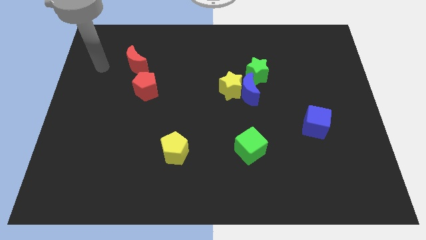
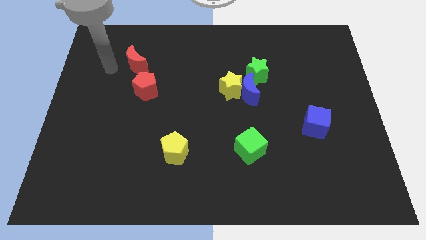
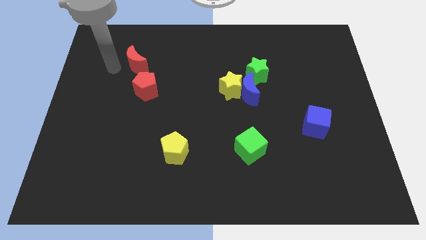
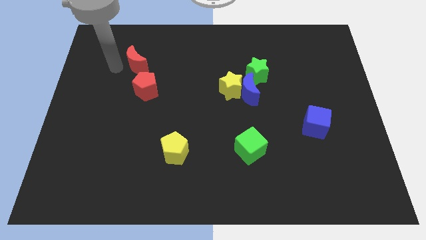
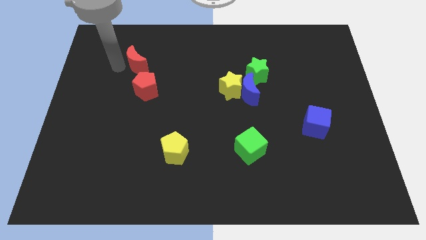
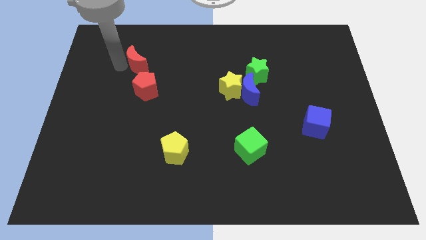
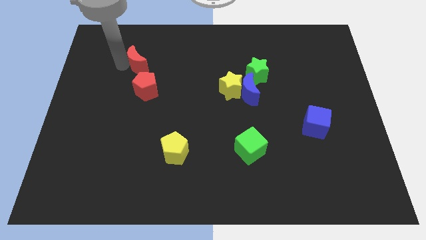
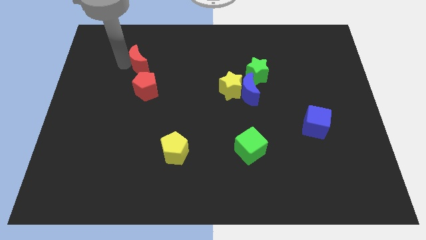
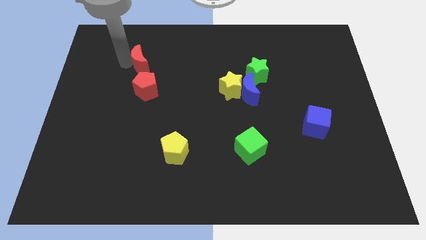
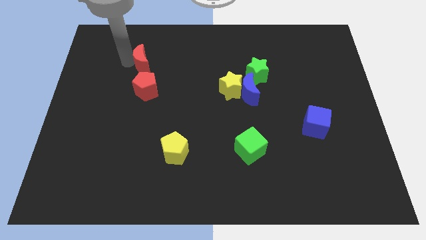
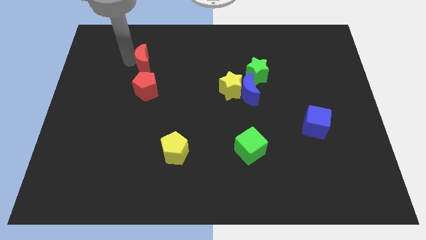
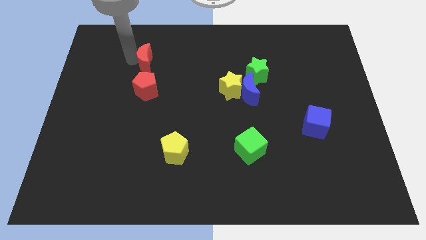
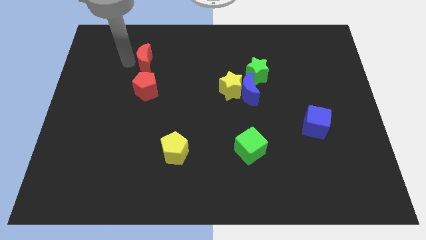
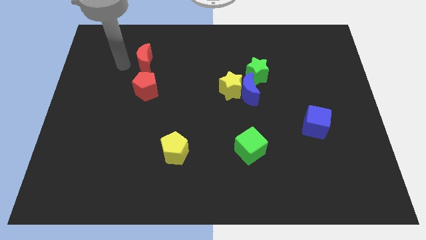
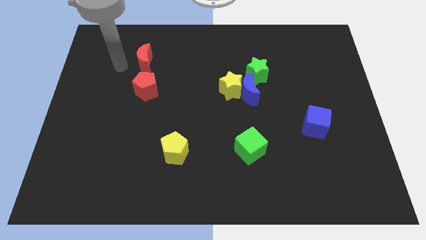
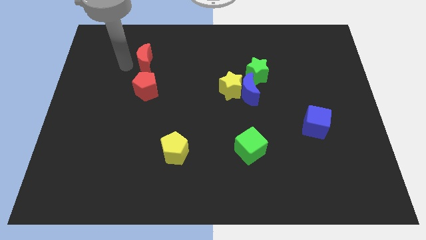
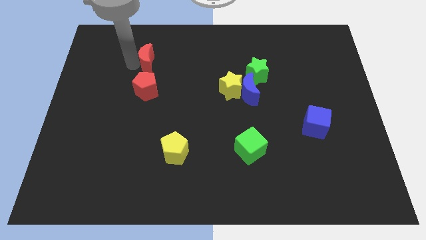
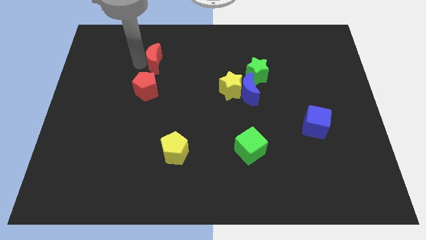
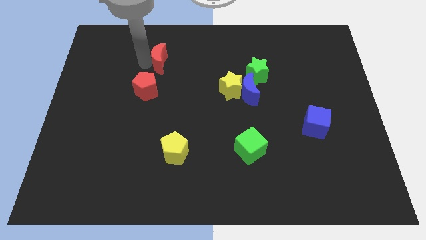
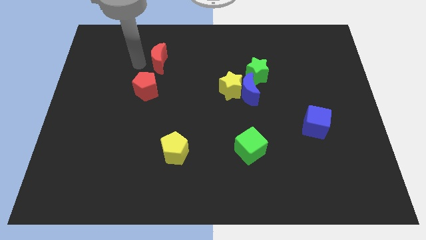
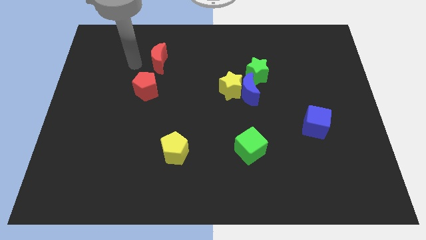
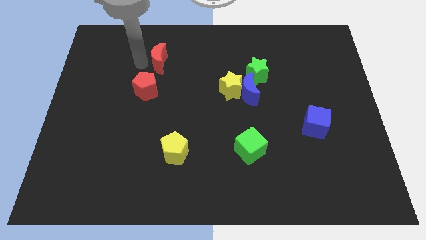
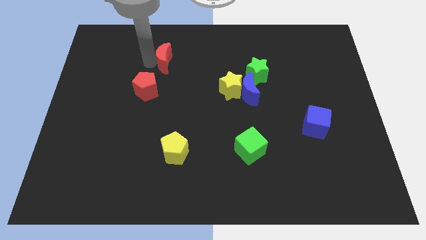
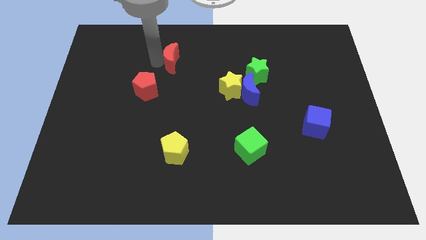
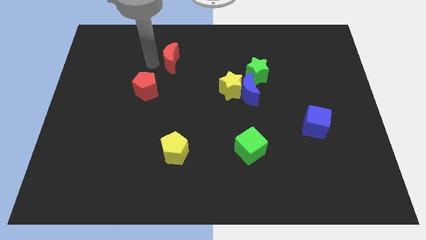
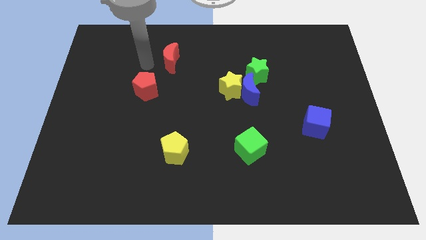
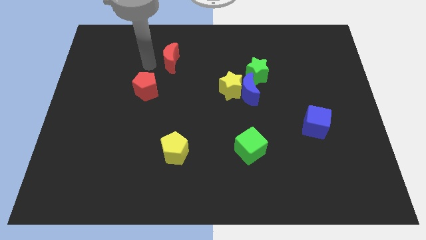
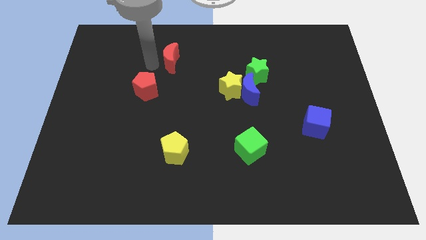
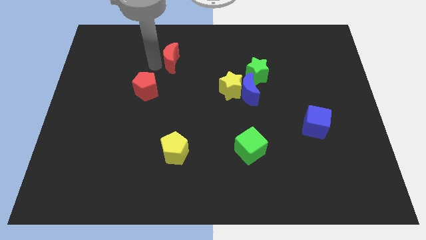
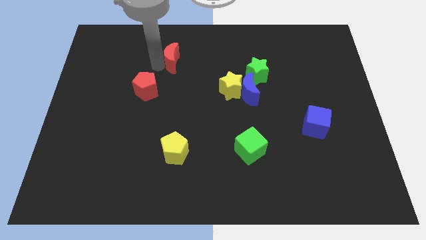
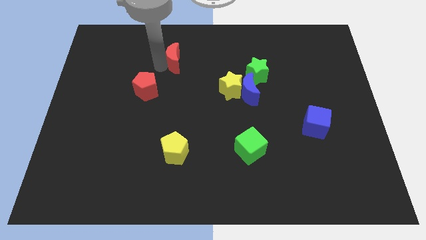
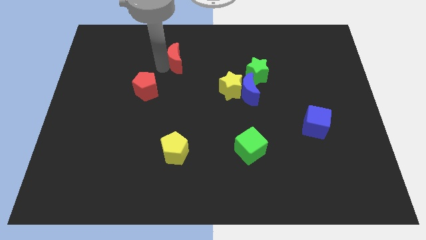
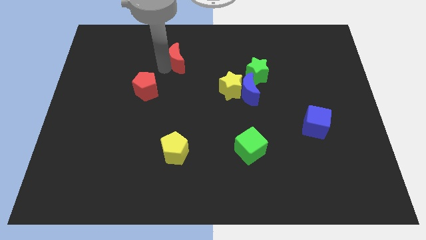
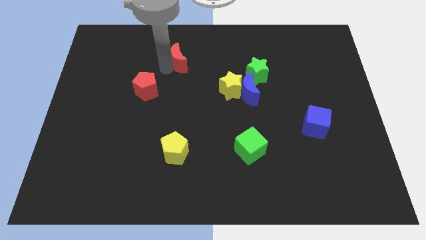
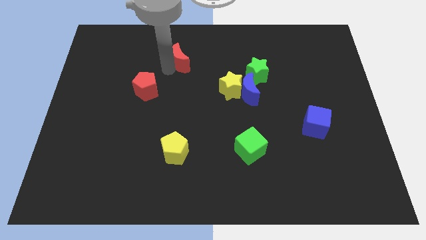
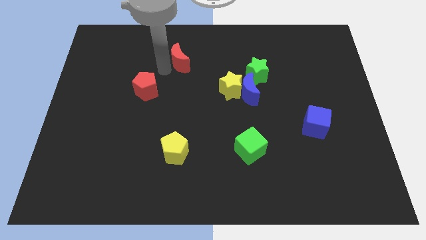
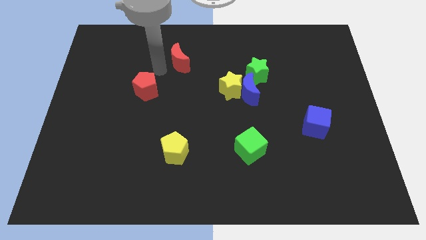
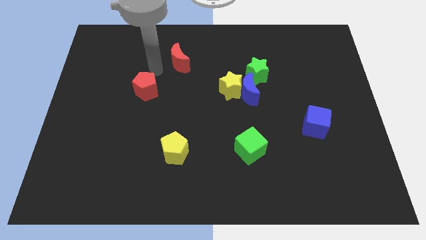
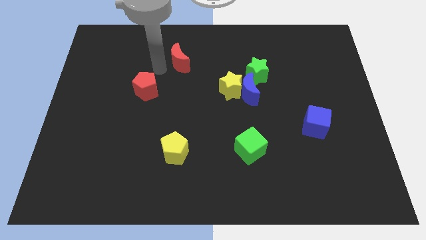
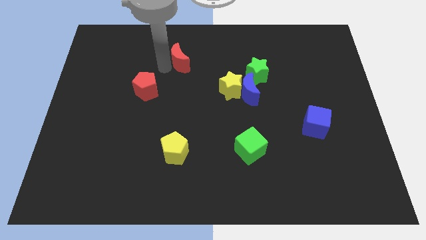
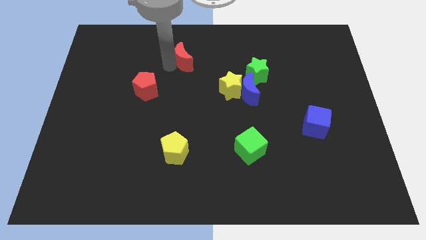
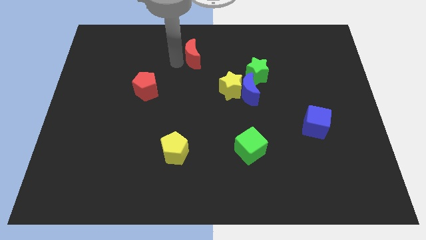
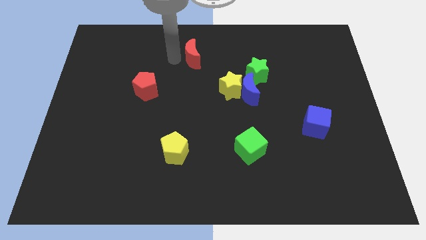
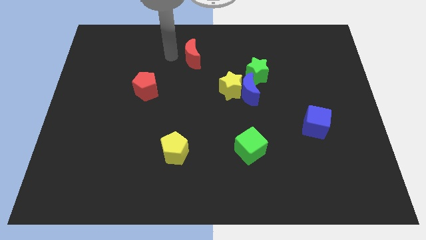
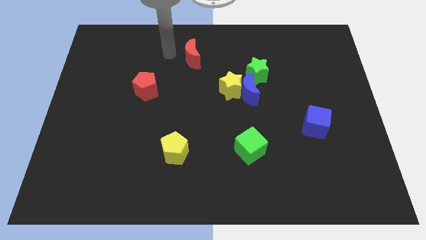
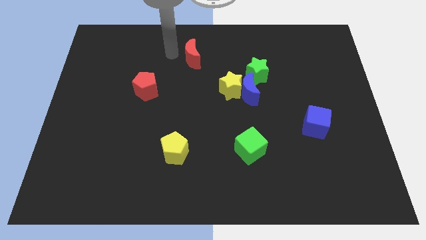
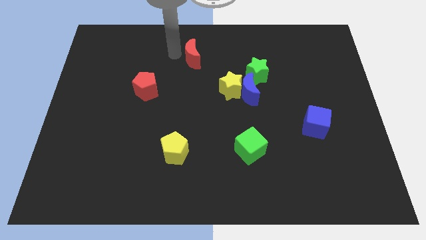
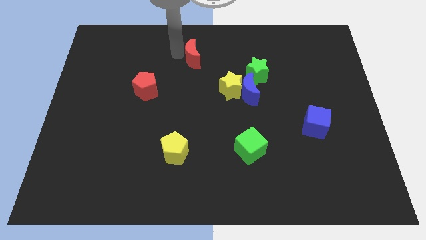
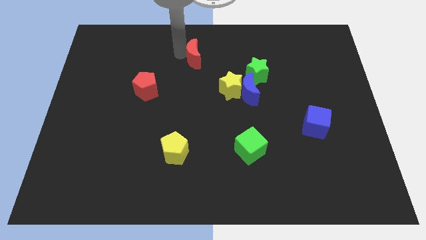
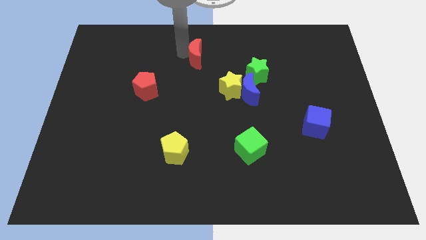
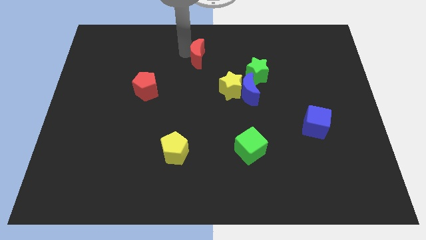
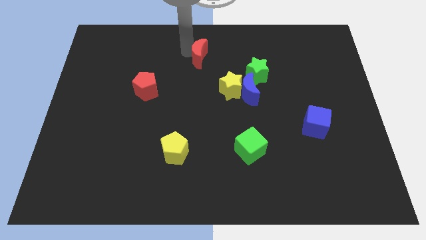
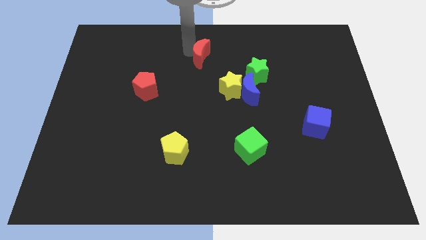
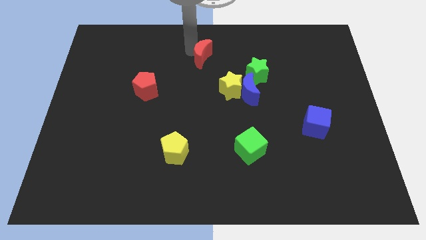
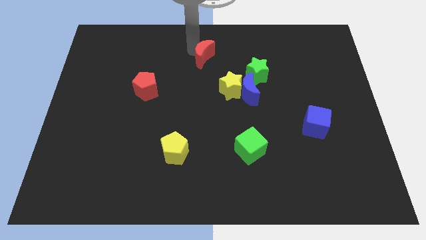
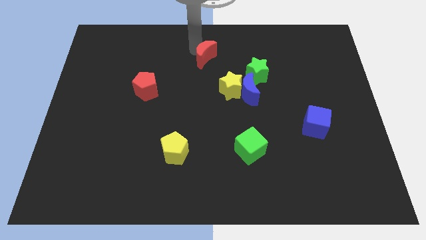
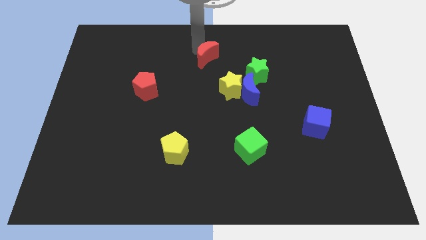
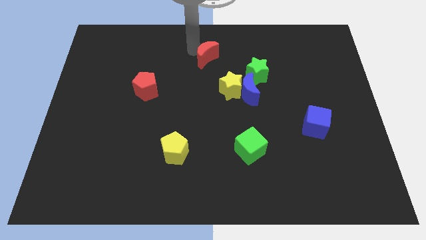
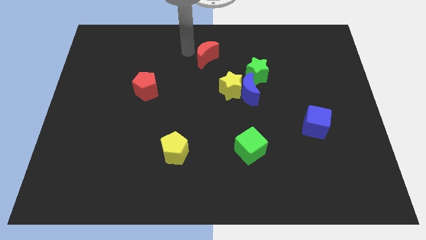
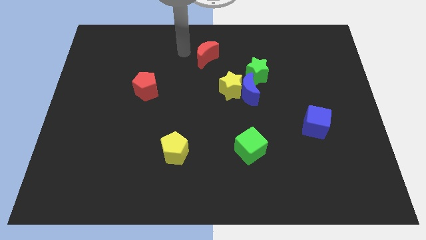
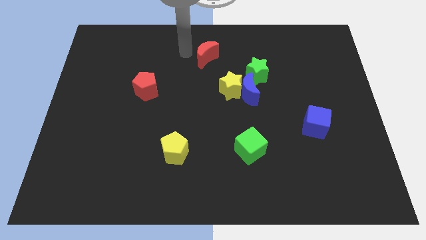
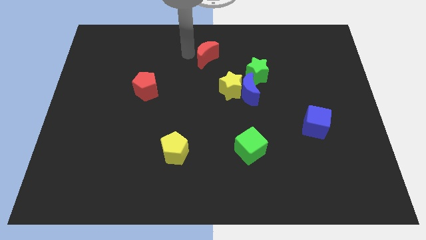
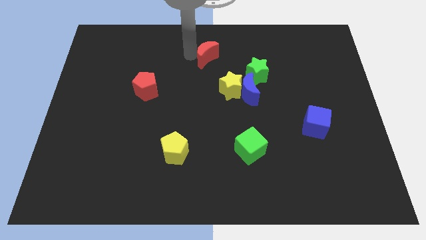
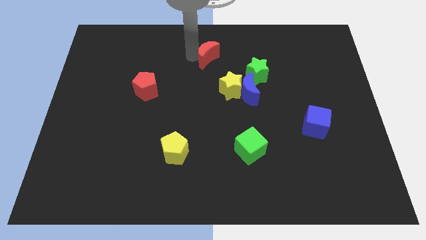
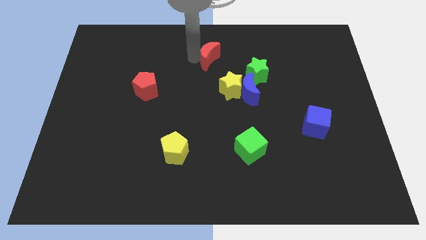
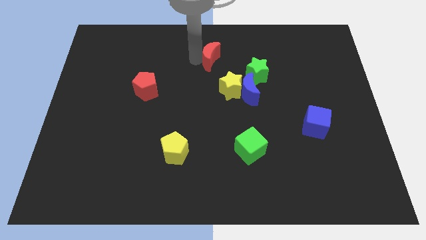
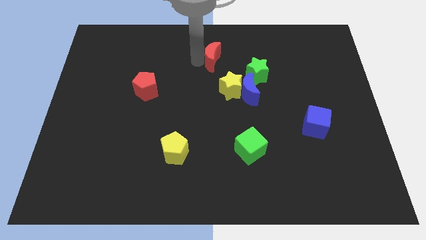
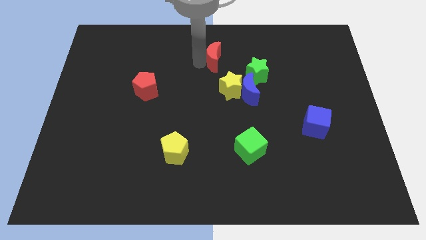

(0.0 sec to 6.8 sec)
slide the red moon right

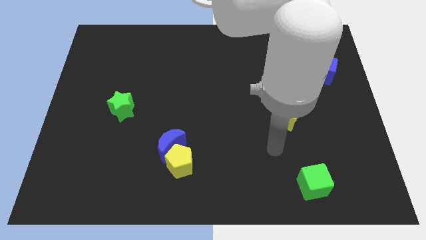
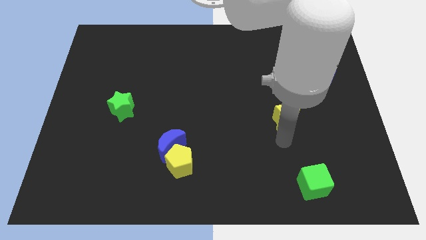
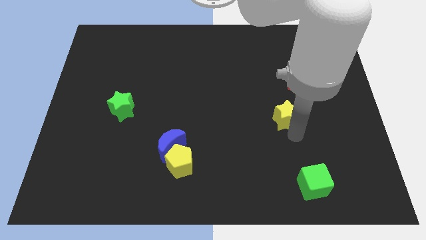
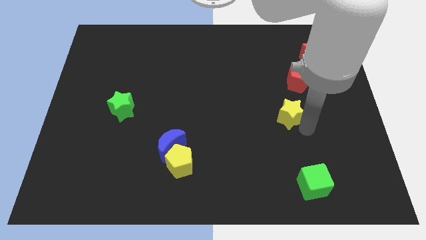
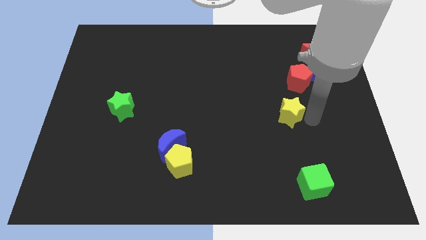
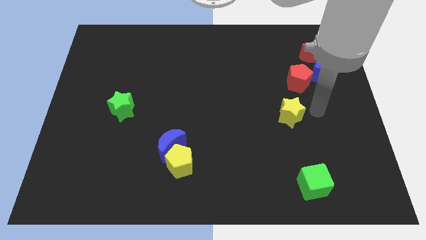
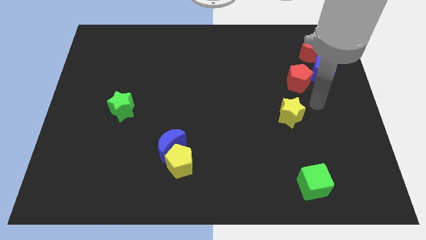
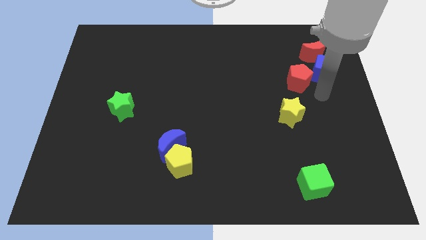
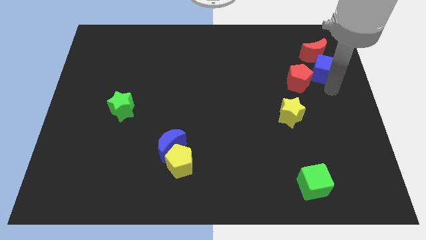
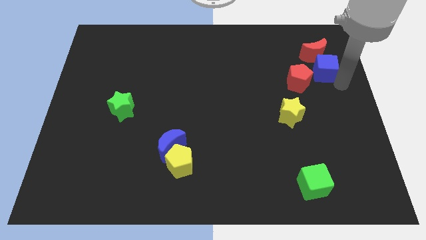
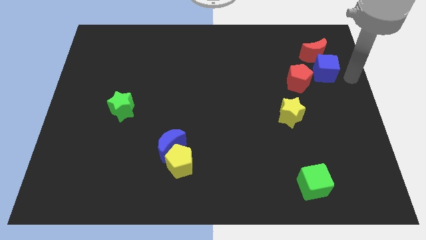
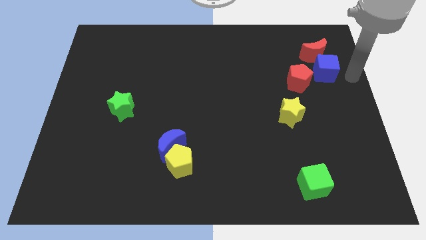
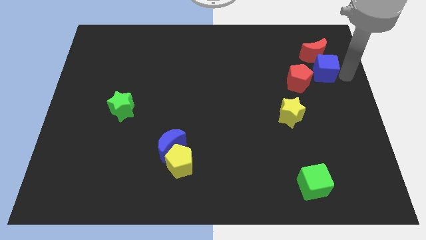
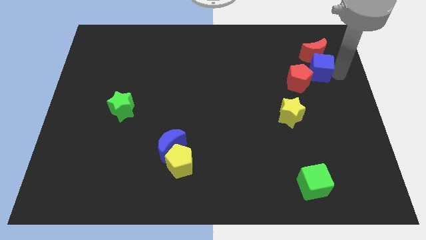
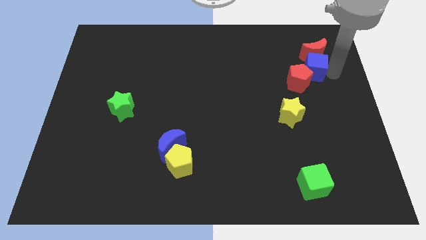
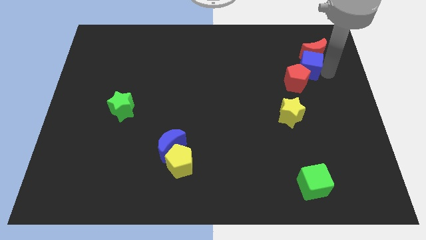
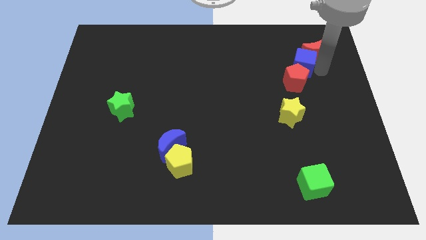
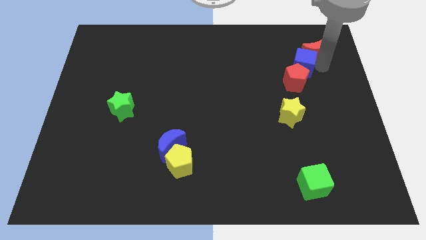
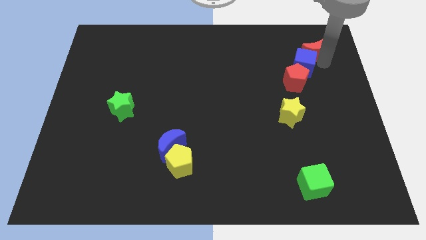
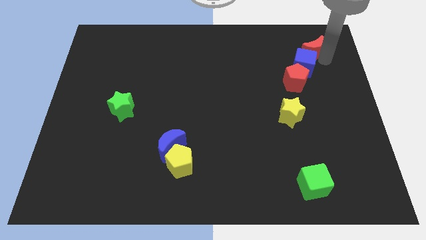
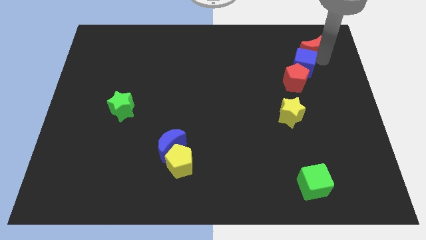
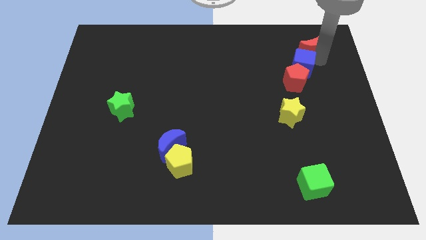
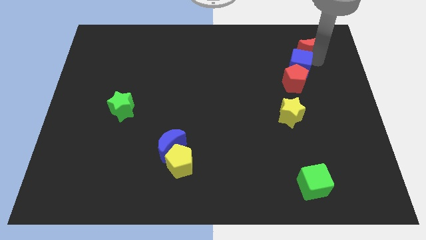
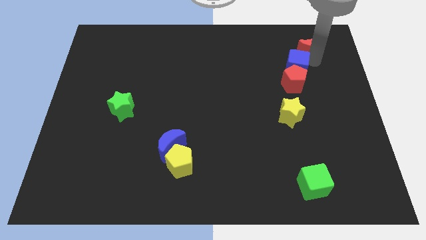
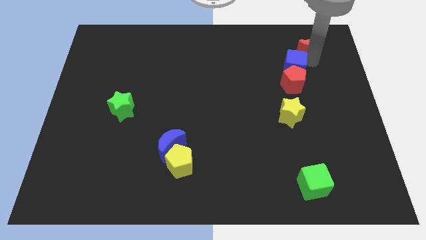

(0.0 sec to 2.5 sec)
move the blue cube to the left a bit
